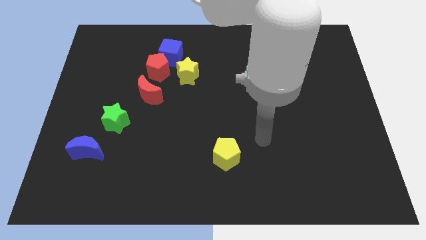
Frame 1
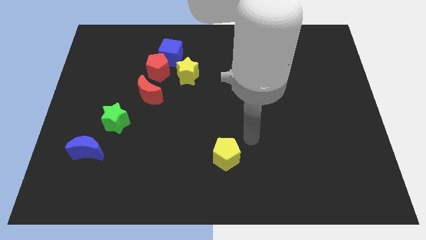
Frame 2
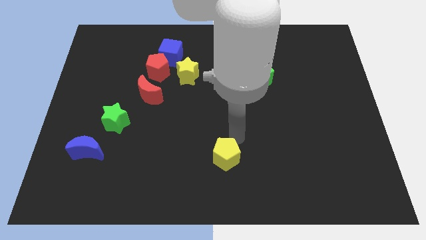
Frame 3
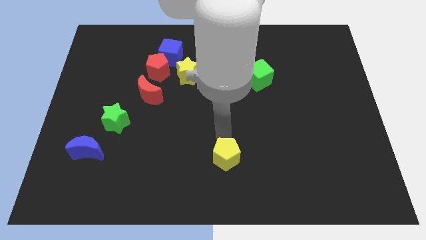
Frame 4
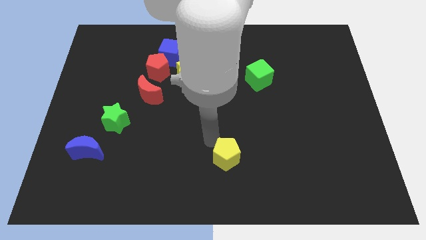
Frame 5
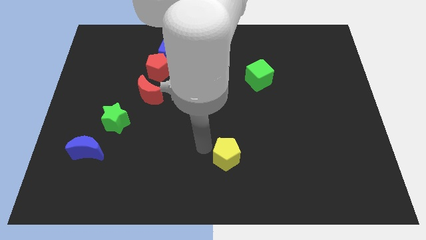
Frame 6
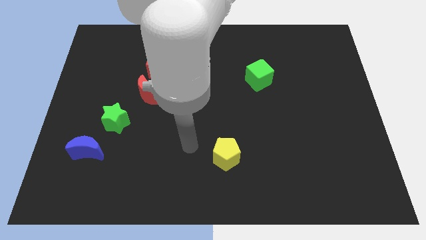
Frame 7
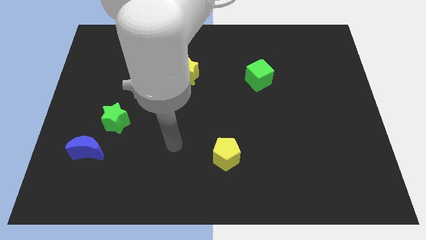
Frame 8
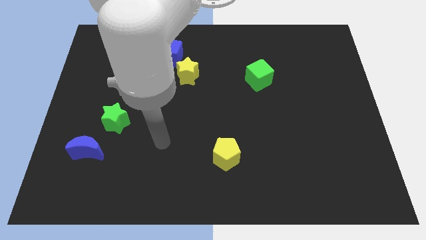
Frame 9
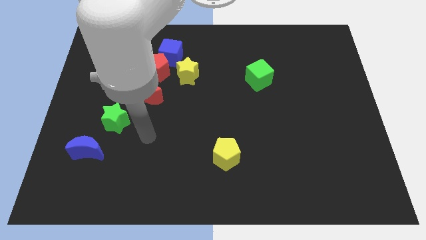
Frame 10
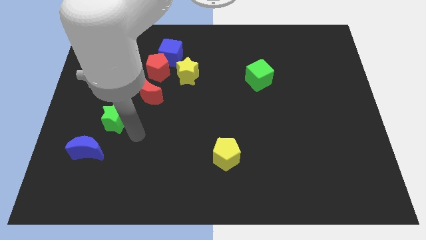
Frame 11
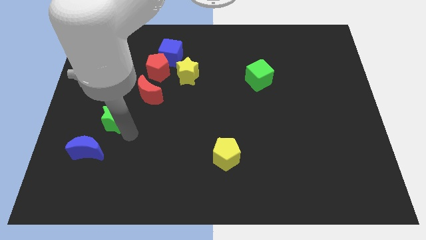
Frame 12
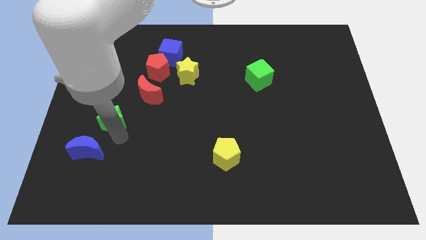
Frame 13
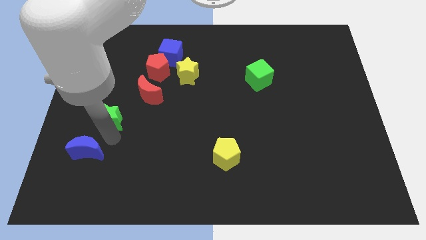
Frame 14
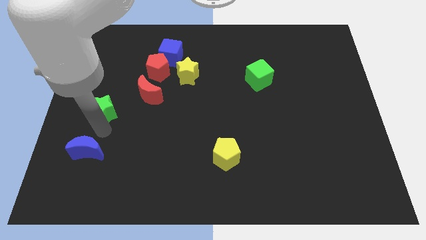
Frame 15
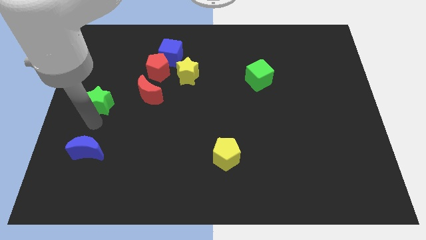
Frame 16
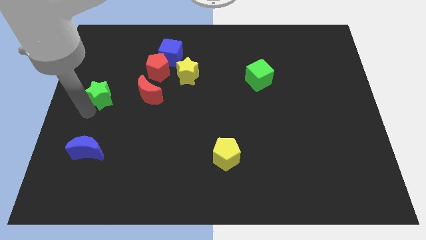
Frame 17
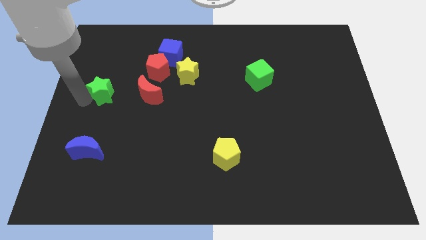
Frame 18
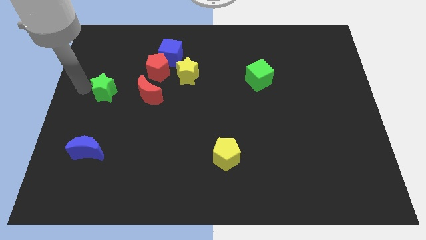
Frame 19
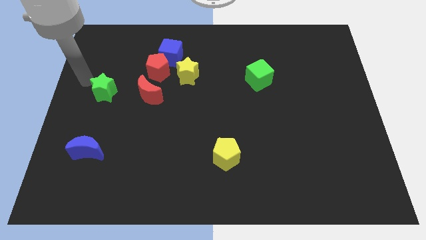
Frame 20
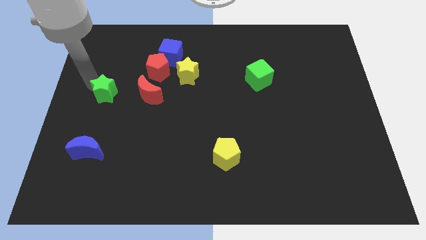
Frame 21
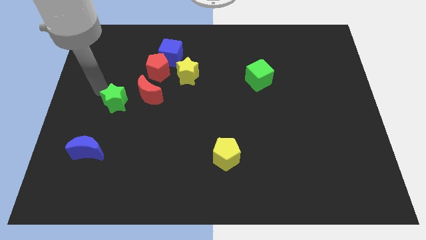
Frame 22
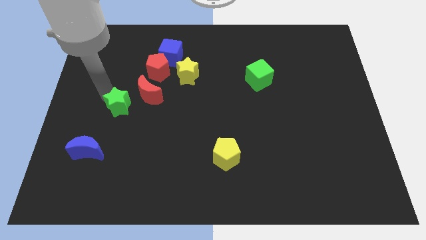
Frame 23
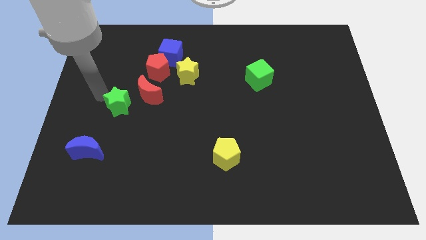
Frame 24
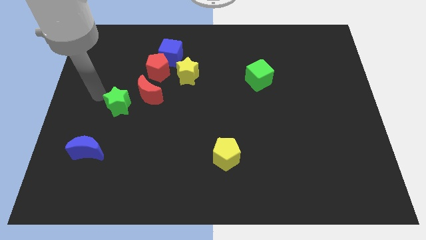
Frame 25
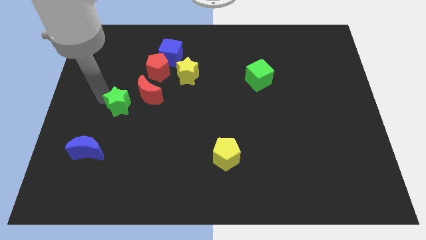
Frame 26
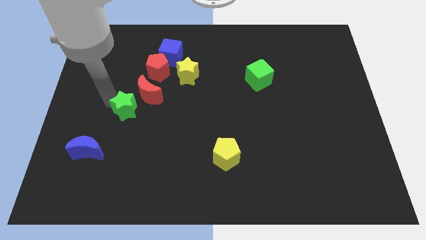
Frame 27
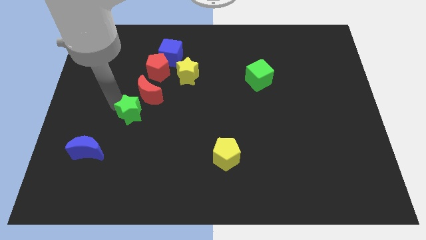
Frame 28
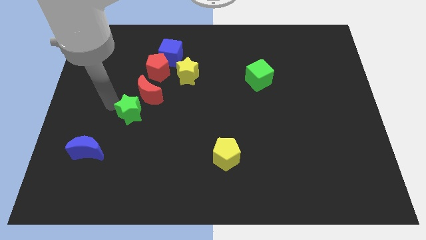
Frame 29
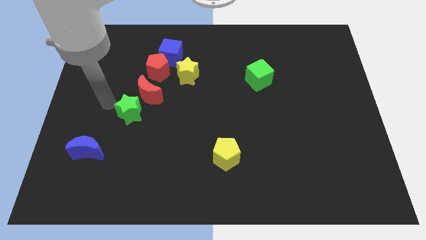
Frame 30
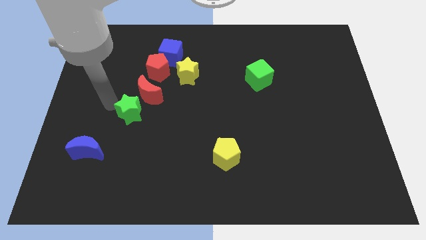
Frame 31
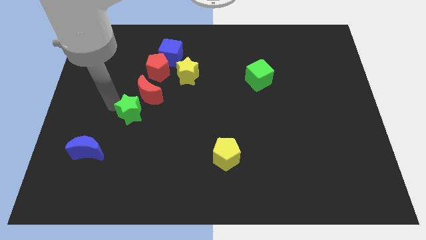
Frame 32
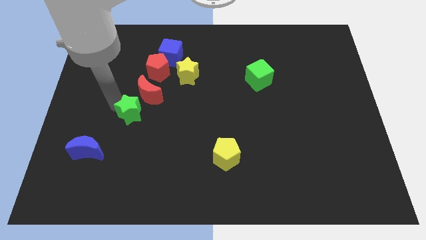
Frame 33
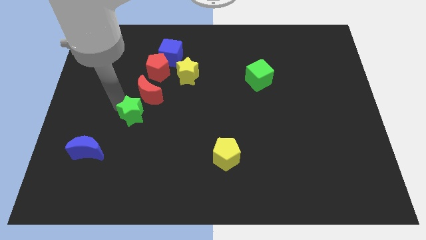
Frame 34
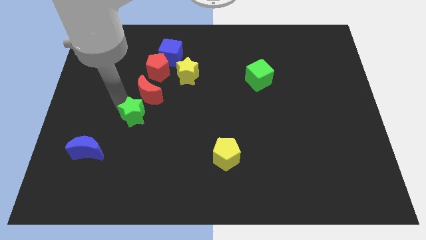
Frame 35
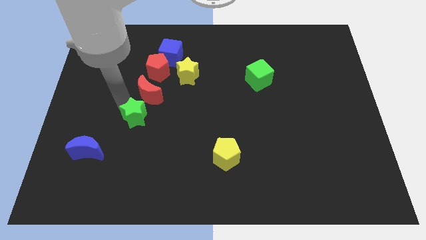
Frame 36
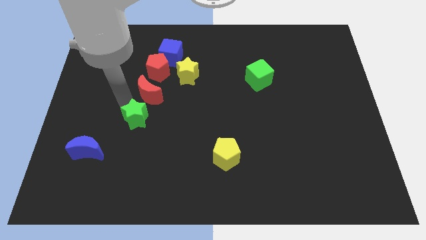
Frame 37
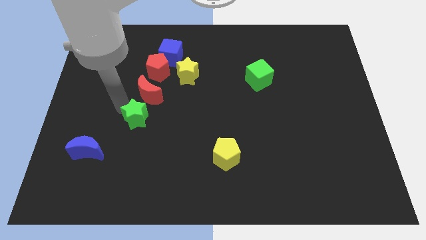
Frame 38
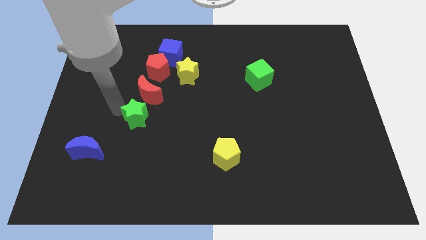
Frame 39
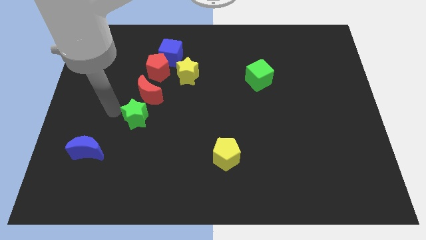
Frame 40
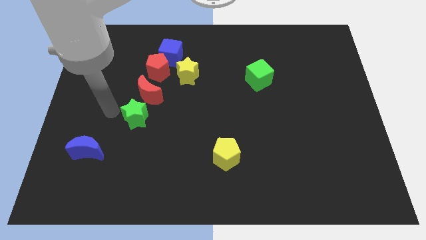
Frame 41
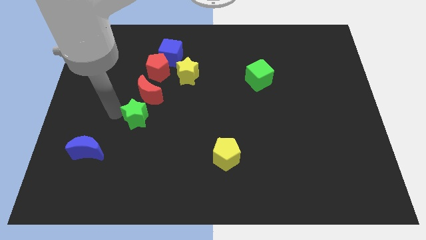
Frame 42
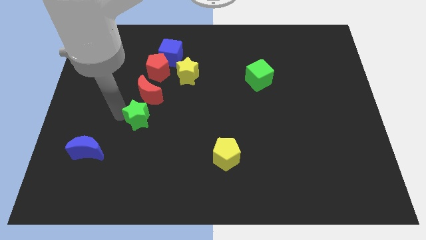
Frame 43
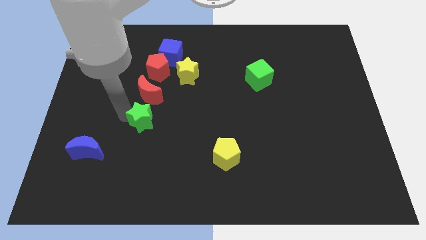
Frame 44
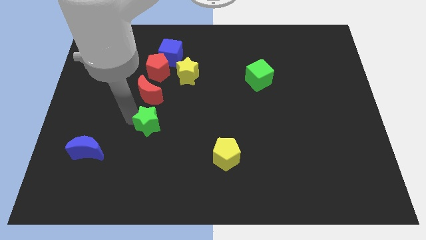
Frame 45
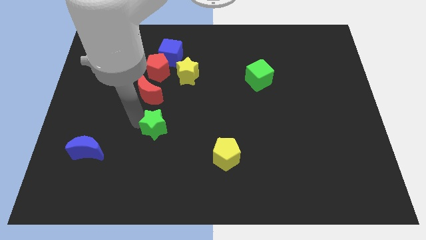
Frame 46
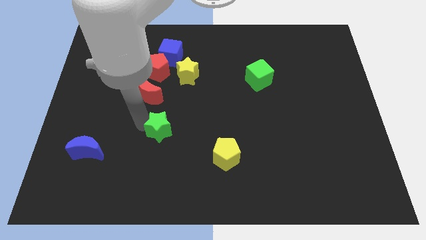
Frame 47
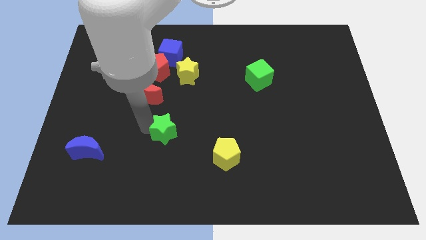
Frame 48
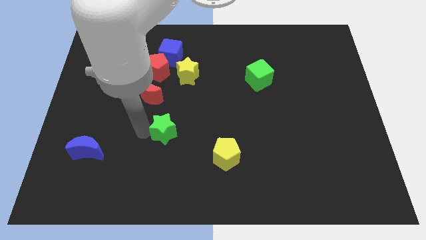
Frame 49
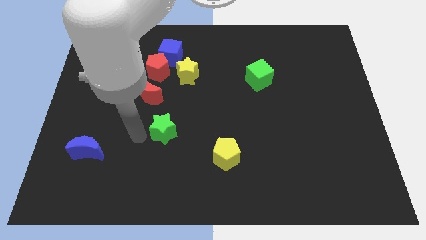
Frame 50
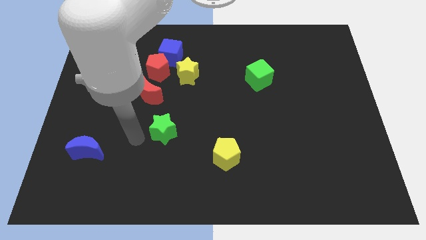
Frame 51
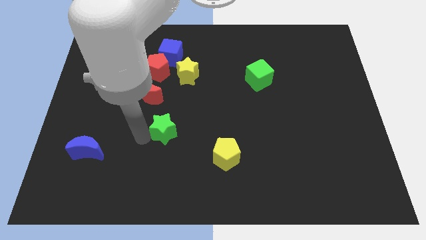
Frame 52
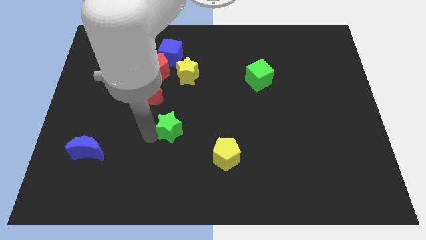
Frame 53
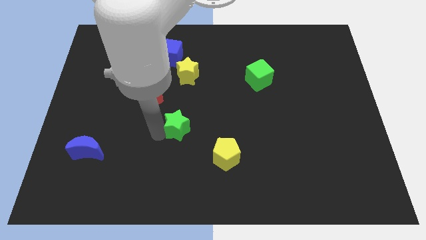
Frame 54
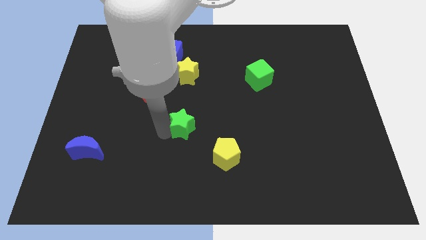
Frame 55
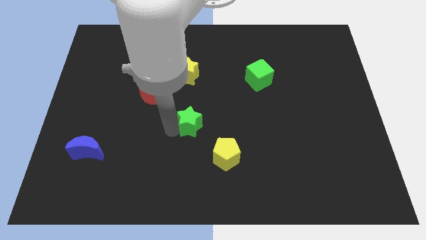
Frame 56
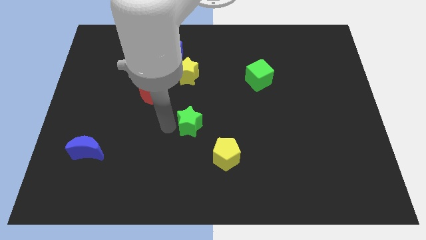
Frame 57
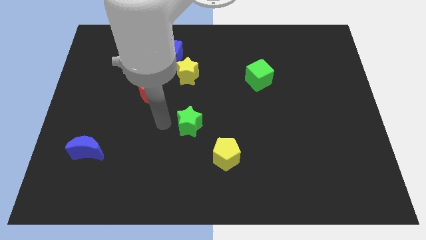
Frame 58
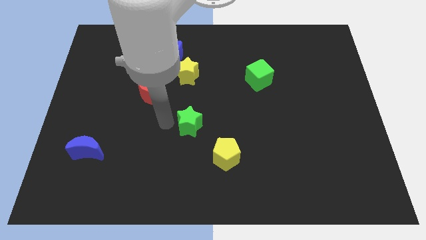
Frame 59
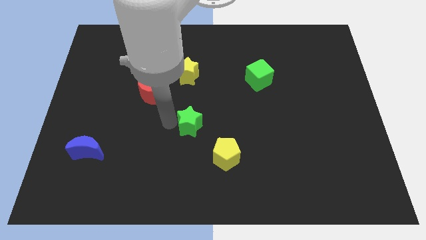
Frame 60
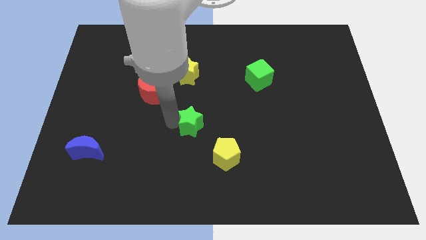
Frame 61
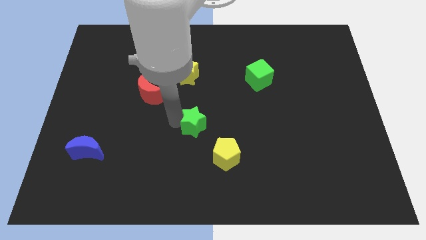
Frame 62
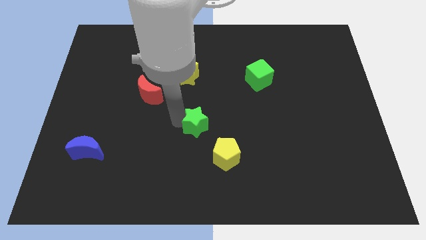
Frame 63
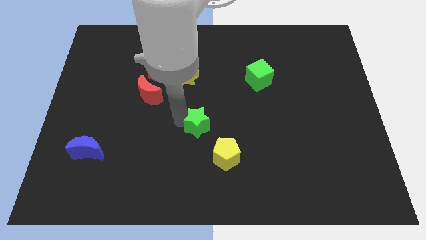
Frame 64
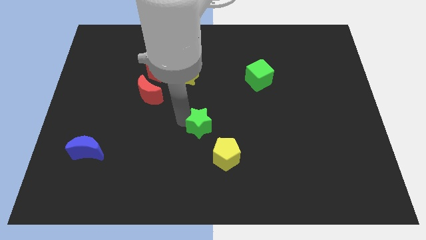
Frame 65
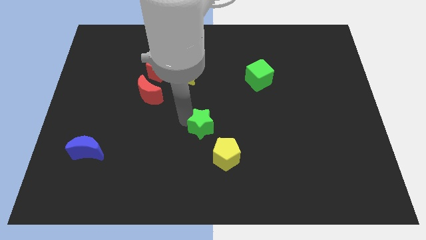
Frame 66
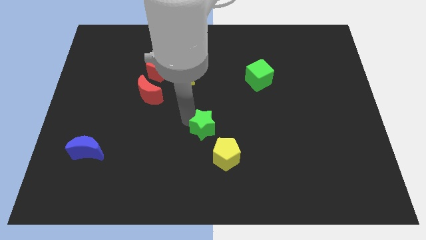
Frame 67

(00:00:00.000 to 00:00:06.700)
move the green star to the right

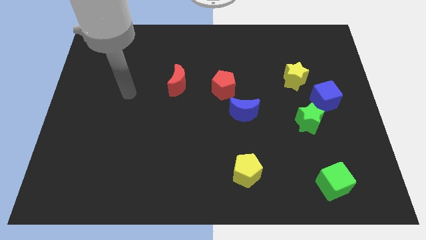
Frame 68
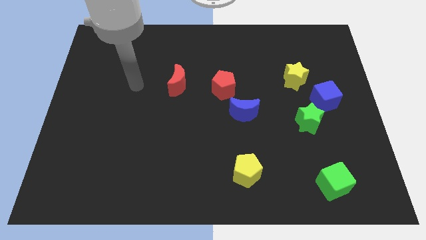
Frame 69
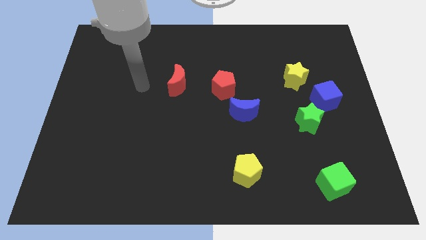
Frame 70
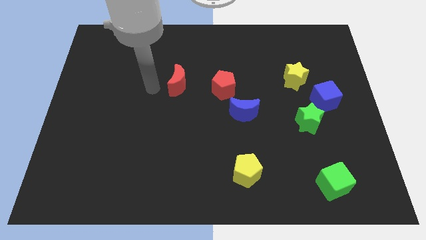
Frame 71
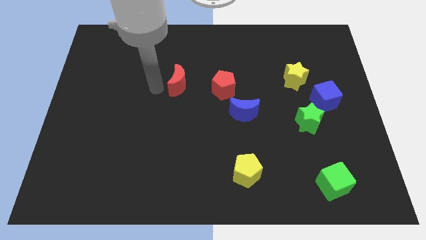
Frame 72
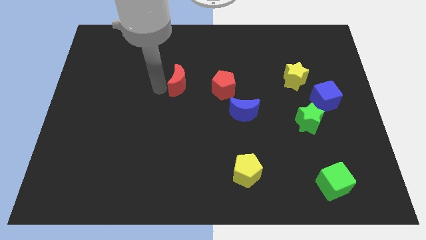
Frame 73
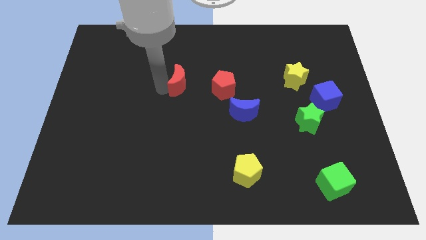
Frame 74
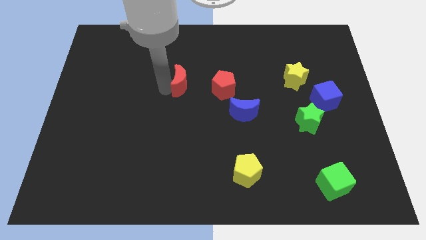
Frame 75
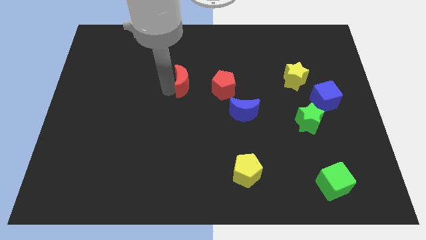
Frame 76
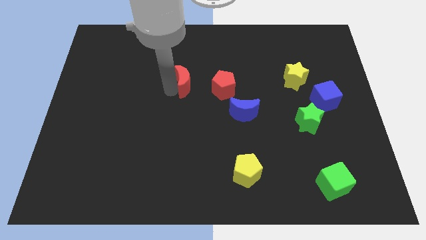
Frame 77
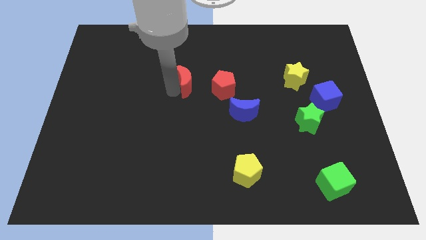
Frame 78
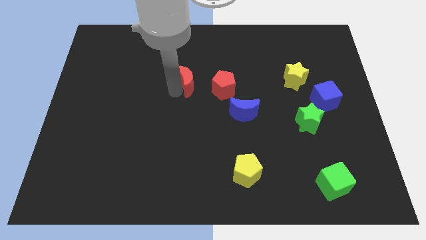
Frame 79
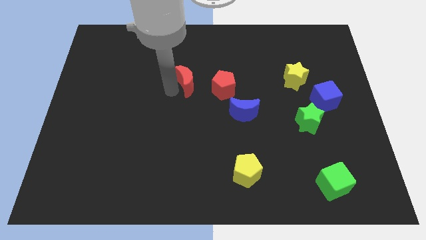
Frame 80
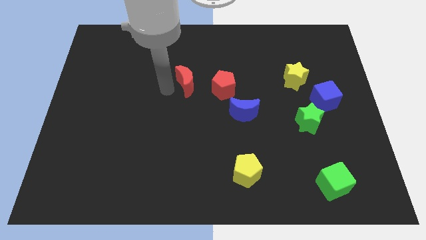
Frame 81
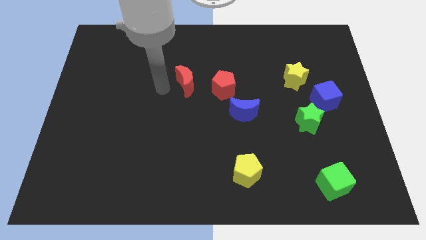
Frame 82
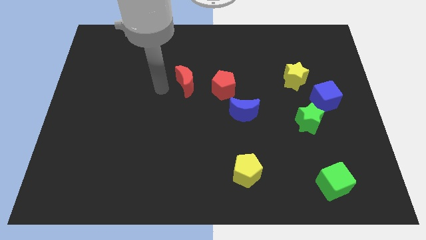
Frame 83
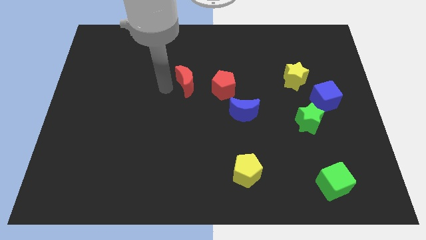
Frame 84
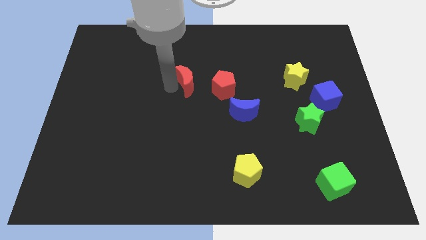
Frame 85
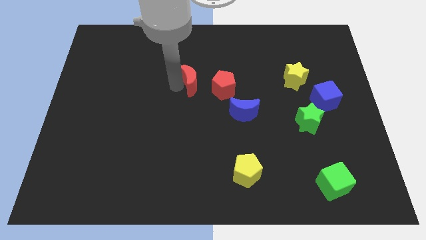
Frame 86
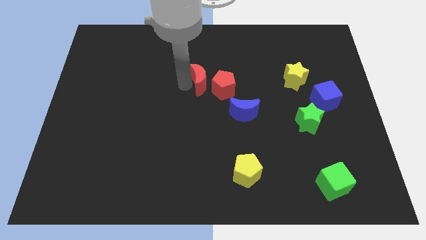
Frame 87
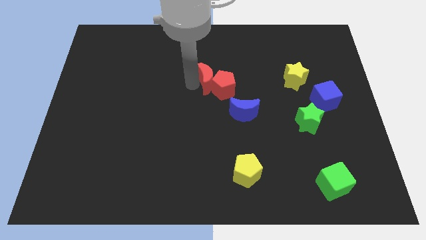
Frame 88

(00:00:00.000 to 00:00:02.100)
slide the red moon right somewhat
